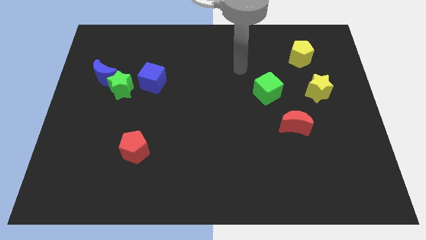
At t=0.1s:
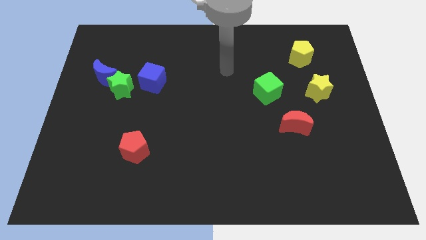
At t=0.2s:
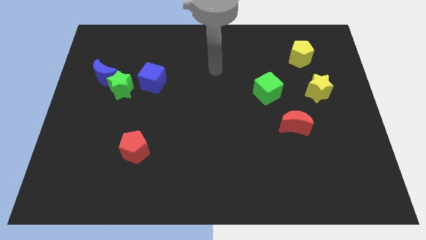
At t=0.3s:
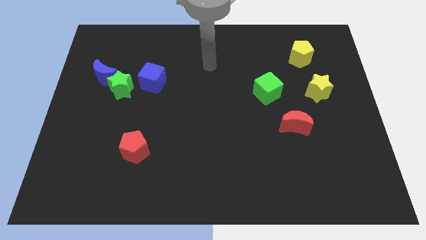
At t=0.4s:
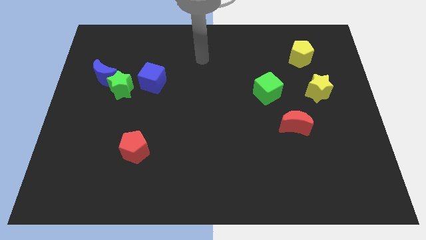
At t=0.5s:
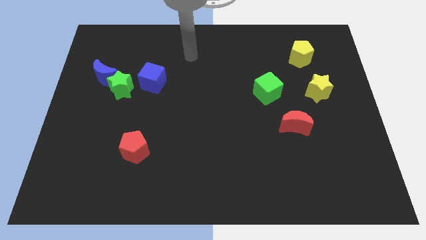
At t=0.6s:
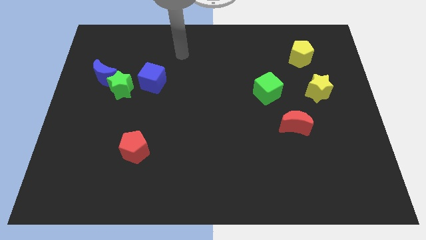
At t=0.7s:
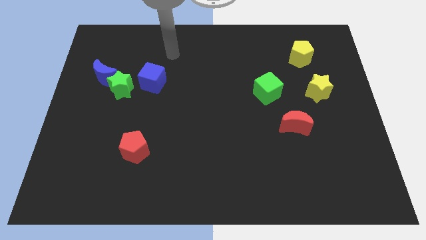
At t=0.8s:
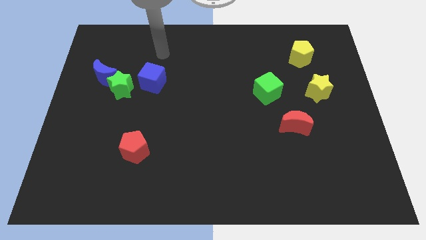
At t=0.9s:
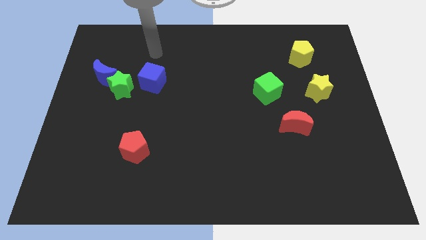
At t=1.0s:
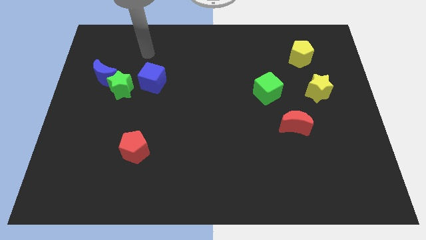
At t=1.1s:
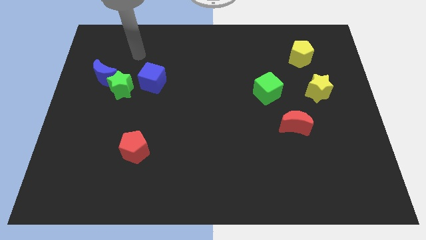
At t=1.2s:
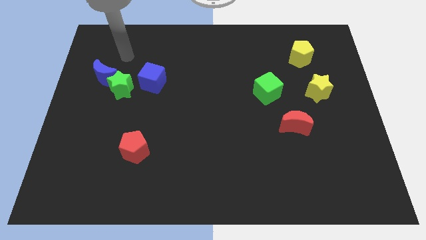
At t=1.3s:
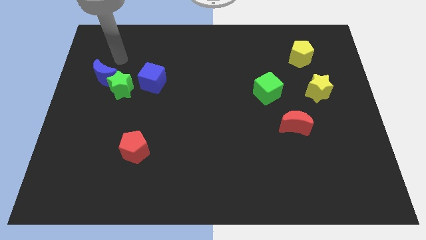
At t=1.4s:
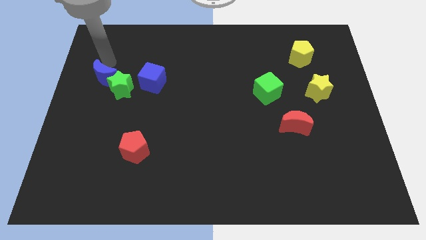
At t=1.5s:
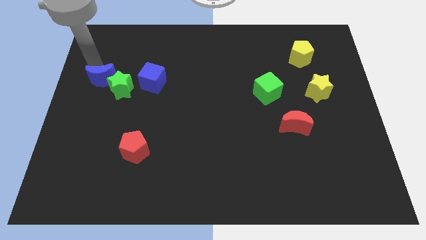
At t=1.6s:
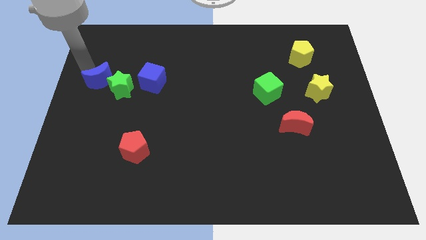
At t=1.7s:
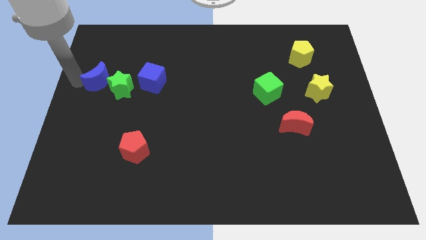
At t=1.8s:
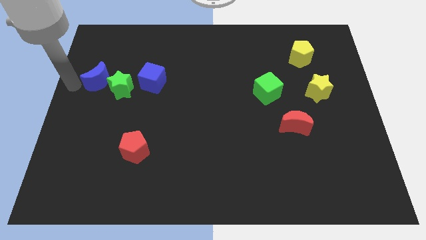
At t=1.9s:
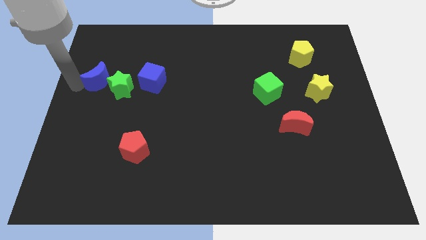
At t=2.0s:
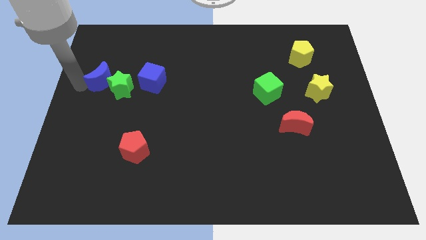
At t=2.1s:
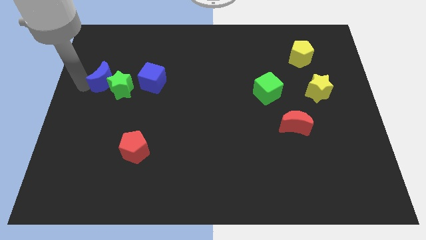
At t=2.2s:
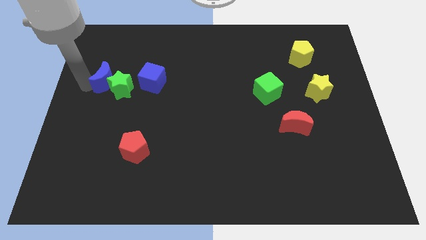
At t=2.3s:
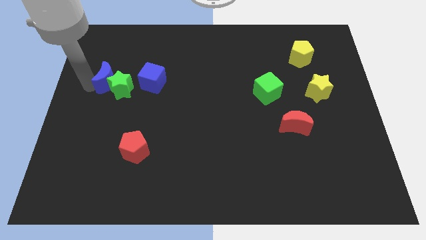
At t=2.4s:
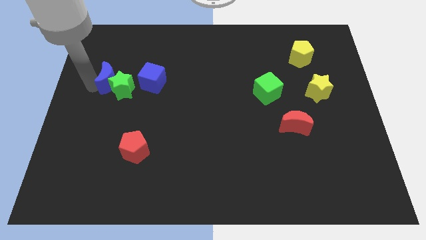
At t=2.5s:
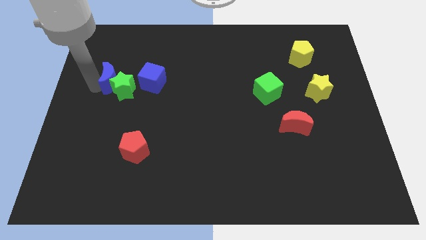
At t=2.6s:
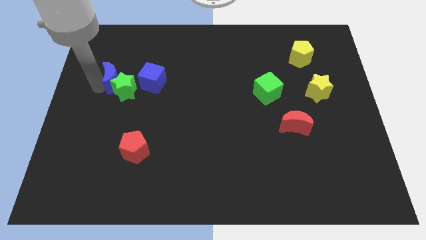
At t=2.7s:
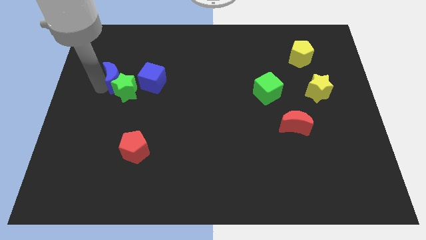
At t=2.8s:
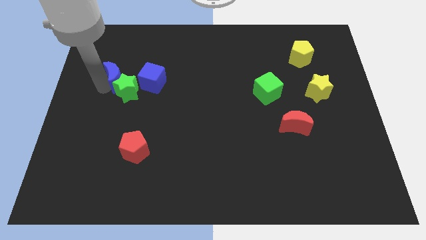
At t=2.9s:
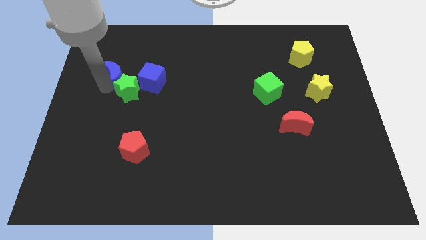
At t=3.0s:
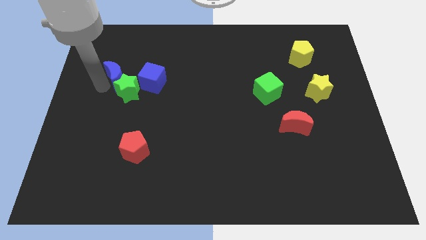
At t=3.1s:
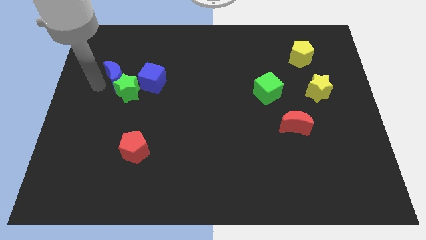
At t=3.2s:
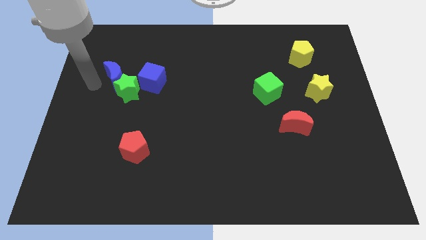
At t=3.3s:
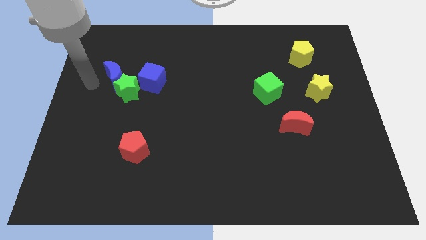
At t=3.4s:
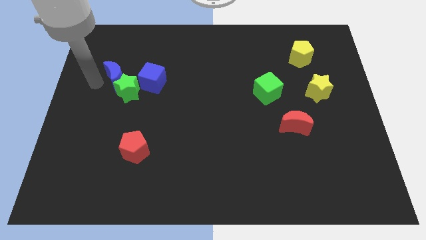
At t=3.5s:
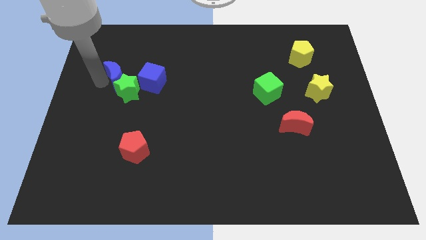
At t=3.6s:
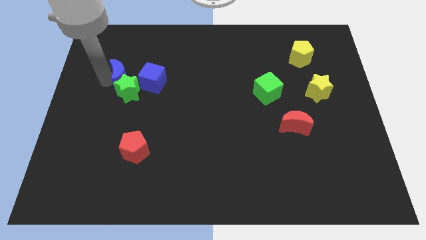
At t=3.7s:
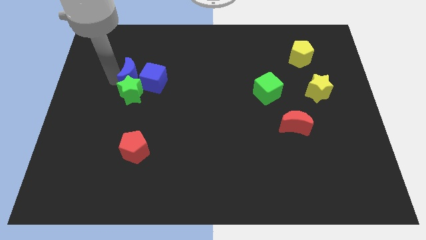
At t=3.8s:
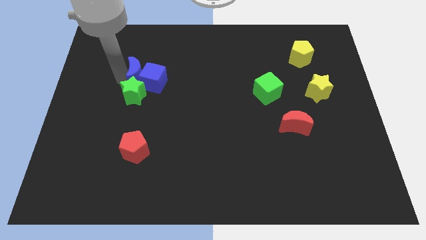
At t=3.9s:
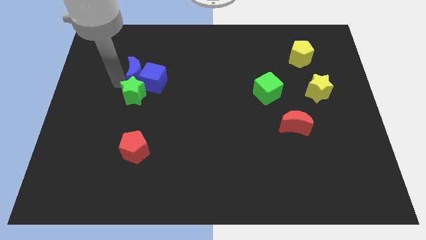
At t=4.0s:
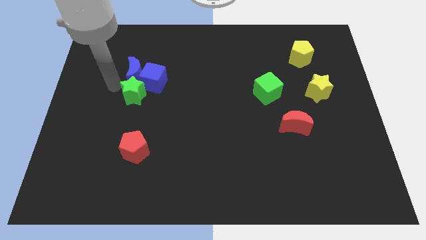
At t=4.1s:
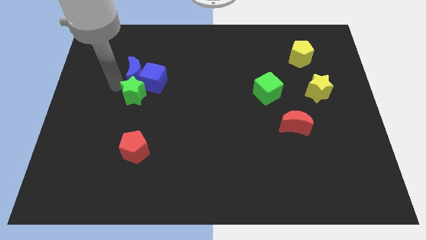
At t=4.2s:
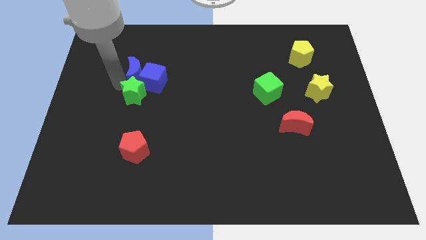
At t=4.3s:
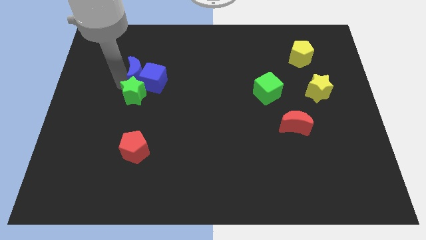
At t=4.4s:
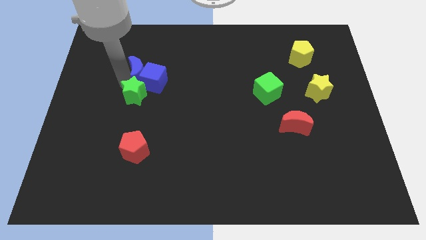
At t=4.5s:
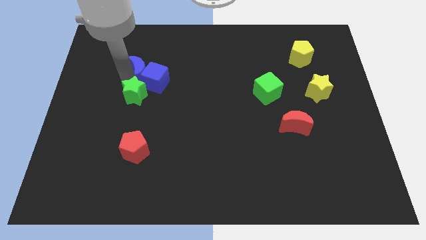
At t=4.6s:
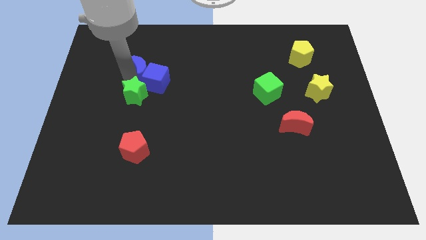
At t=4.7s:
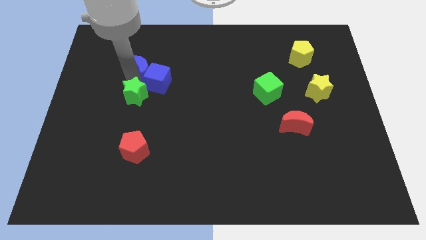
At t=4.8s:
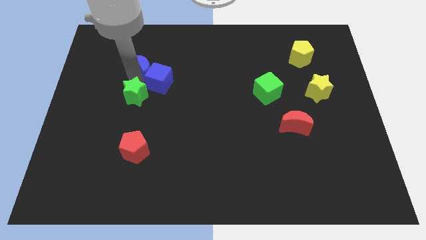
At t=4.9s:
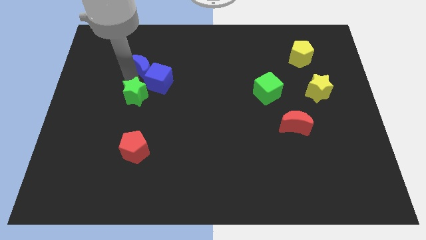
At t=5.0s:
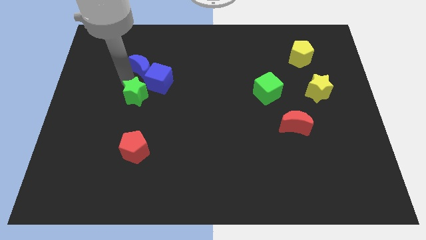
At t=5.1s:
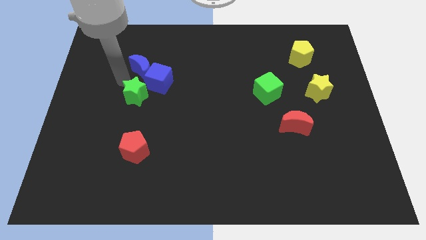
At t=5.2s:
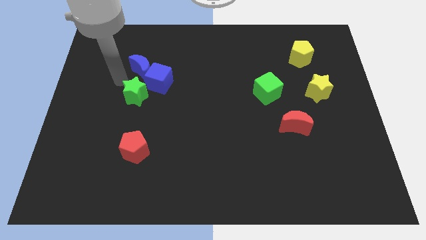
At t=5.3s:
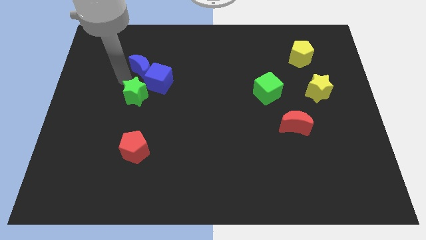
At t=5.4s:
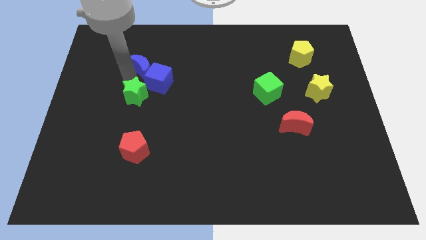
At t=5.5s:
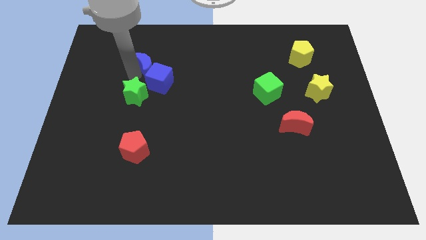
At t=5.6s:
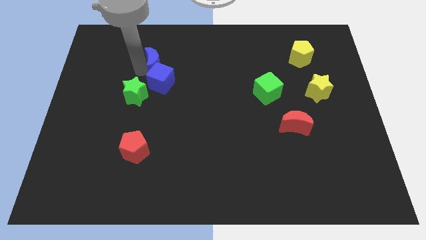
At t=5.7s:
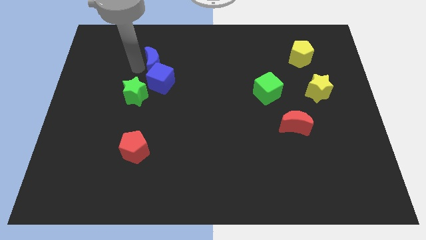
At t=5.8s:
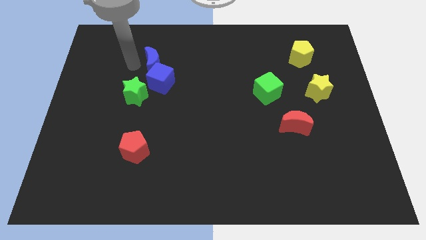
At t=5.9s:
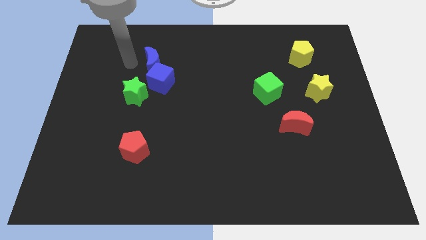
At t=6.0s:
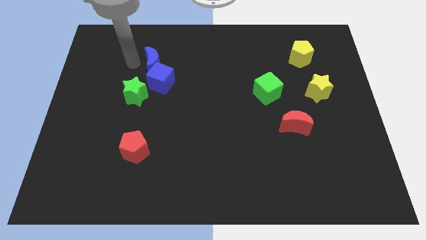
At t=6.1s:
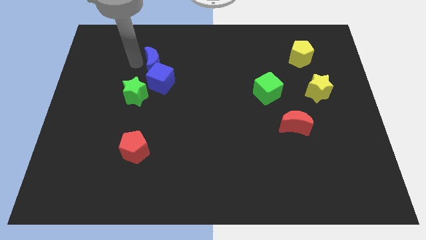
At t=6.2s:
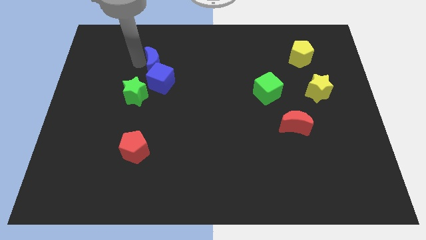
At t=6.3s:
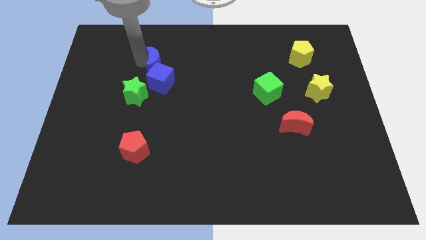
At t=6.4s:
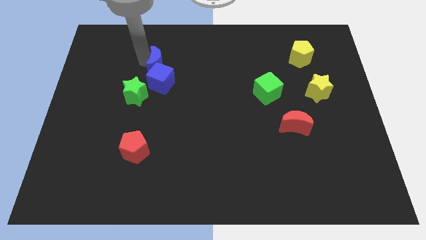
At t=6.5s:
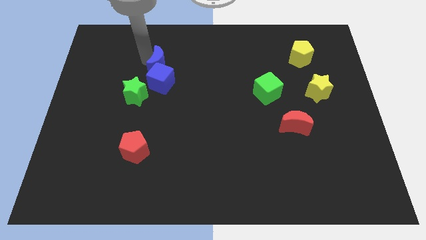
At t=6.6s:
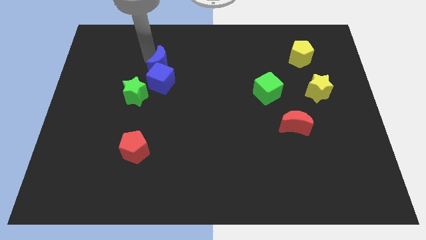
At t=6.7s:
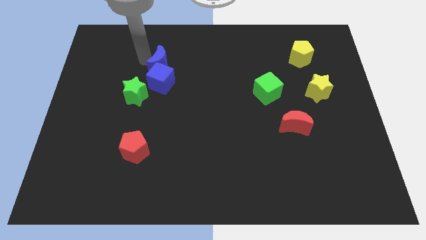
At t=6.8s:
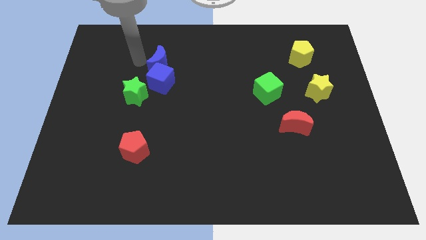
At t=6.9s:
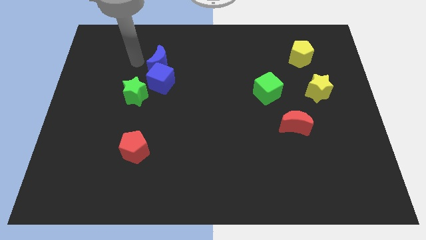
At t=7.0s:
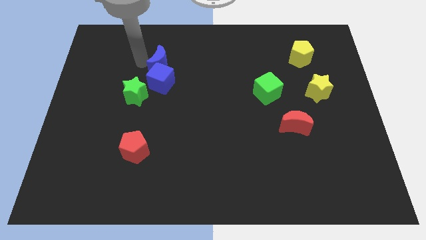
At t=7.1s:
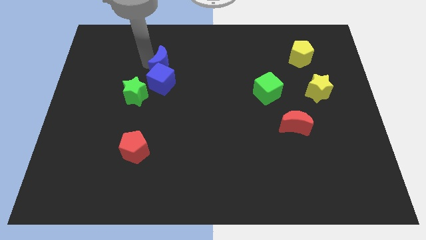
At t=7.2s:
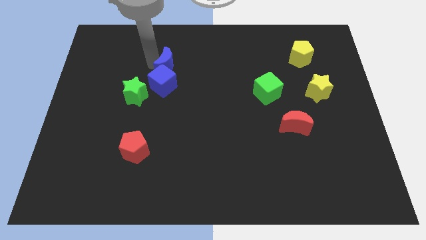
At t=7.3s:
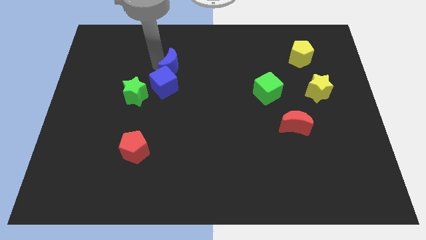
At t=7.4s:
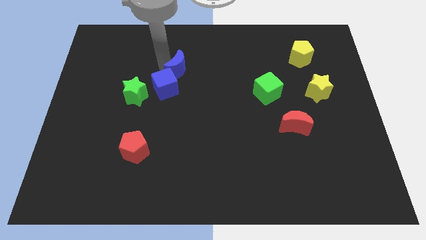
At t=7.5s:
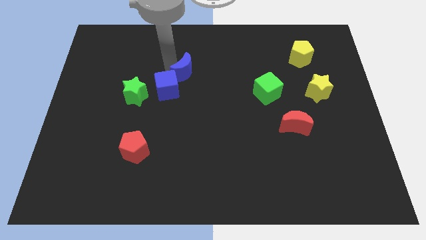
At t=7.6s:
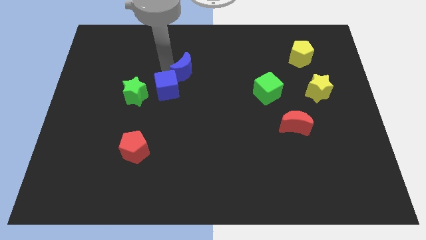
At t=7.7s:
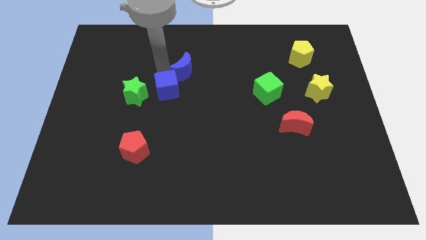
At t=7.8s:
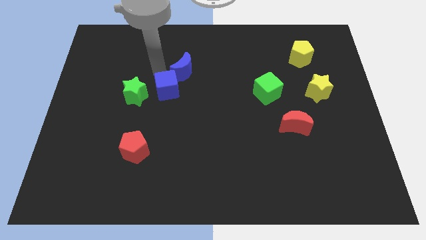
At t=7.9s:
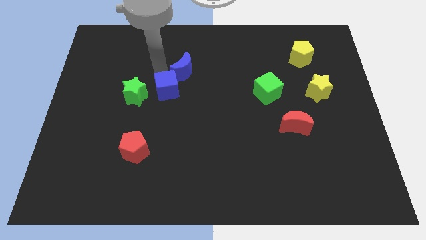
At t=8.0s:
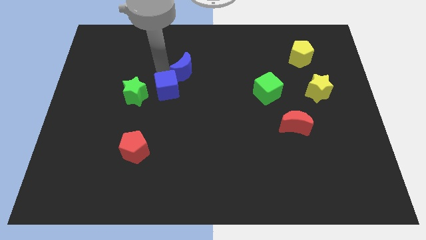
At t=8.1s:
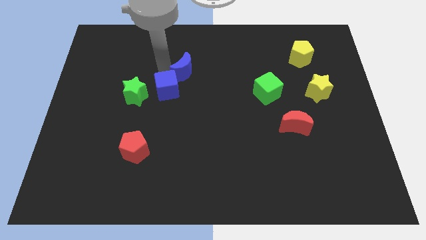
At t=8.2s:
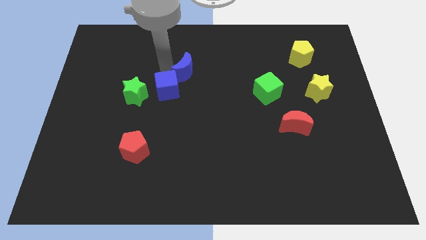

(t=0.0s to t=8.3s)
move the blue moon right
